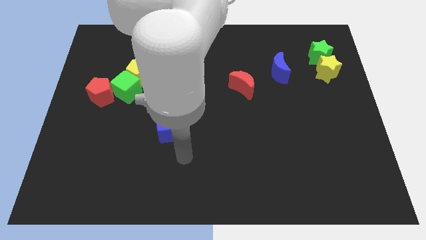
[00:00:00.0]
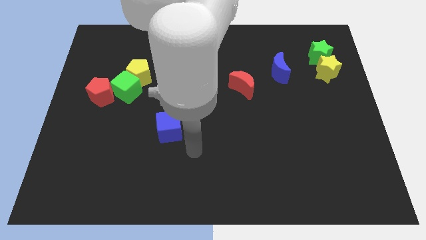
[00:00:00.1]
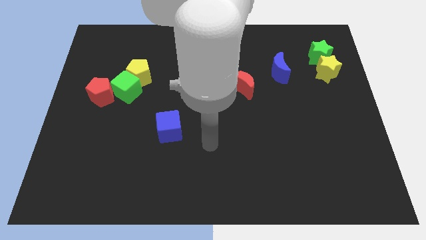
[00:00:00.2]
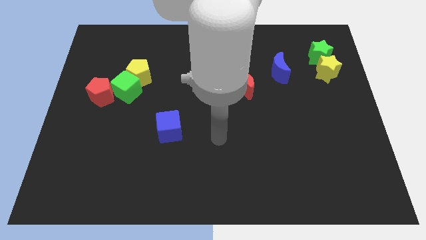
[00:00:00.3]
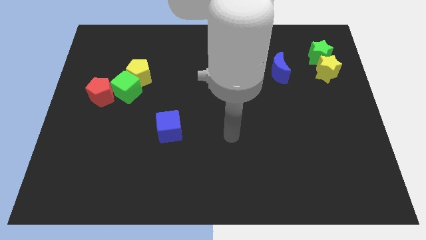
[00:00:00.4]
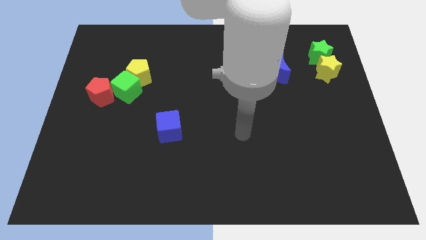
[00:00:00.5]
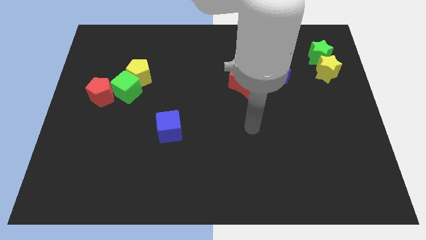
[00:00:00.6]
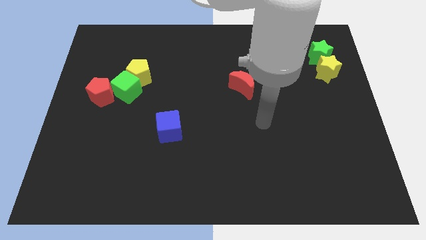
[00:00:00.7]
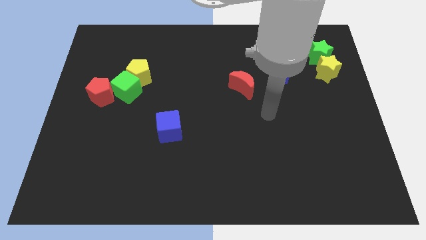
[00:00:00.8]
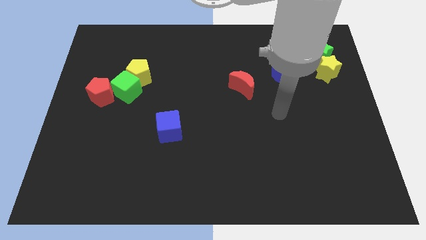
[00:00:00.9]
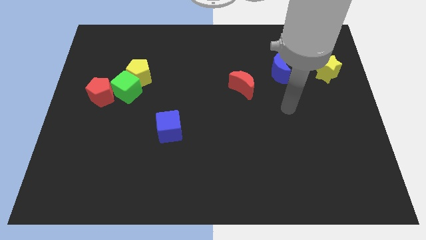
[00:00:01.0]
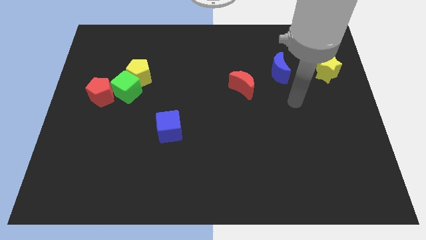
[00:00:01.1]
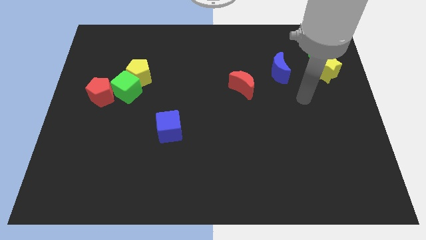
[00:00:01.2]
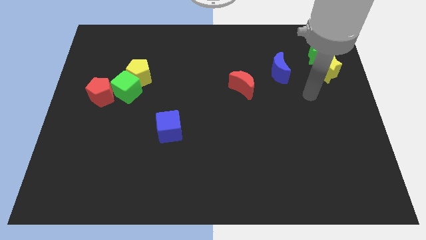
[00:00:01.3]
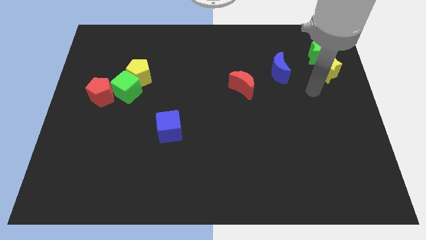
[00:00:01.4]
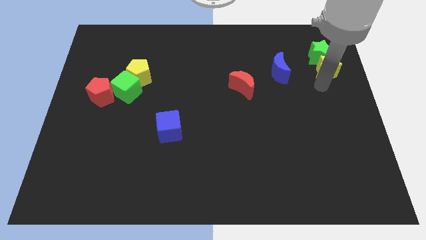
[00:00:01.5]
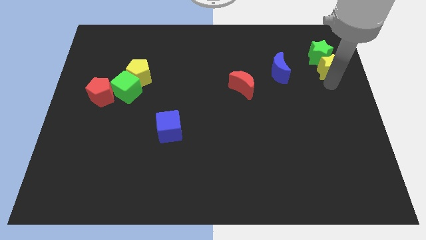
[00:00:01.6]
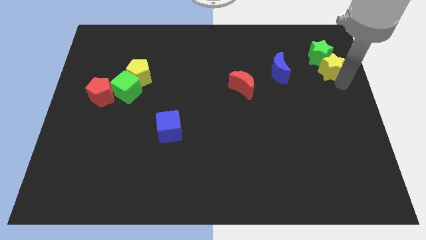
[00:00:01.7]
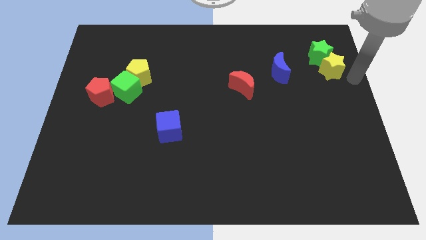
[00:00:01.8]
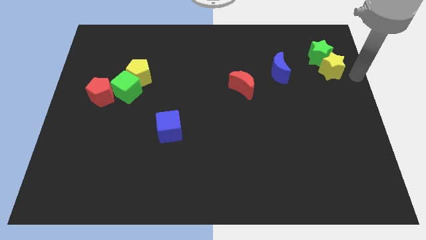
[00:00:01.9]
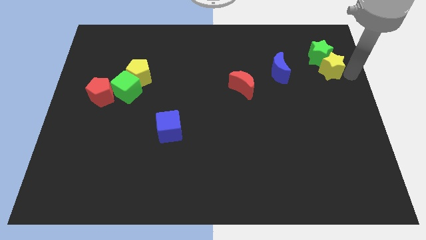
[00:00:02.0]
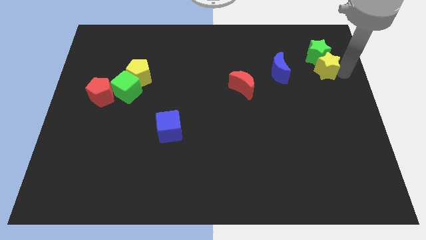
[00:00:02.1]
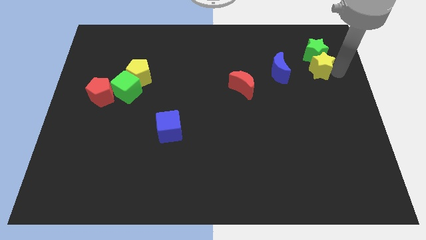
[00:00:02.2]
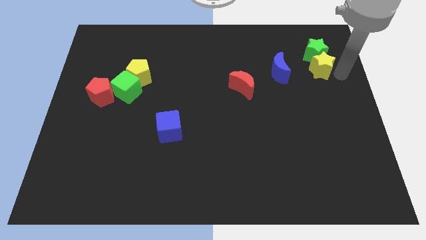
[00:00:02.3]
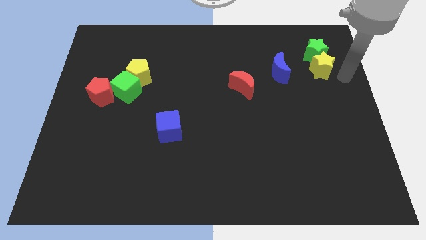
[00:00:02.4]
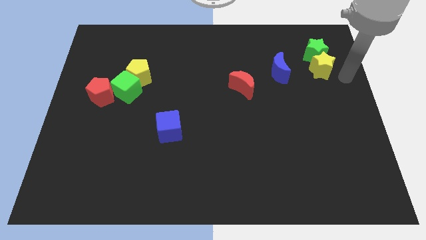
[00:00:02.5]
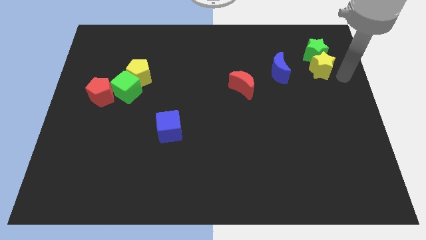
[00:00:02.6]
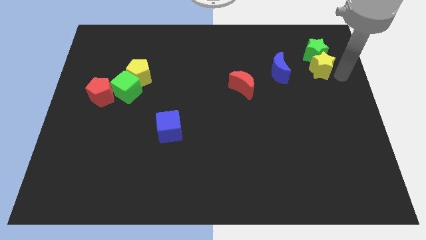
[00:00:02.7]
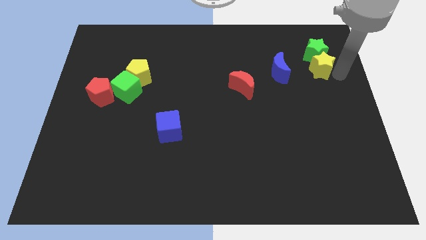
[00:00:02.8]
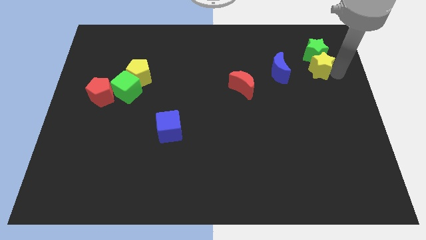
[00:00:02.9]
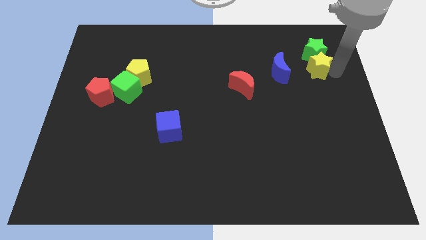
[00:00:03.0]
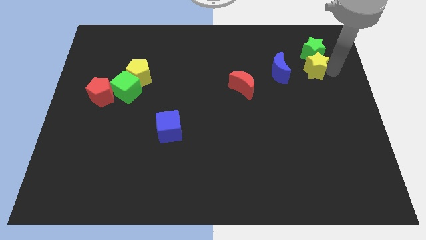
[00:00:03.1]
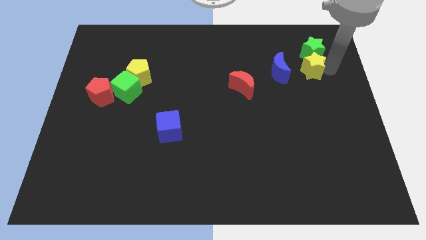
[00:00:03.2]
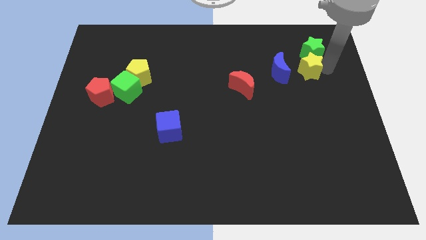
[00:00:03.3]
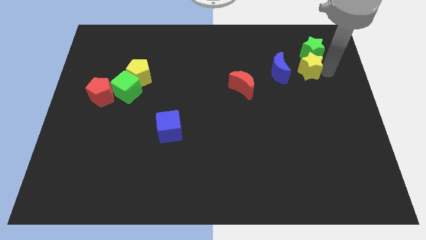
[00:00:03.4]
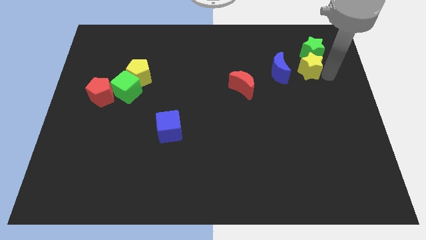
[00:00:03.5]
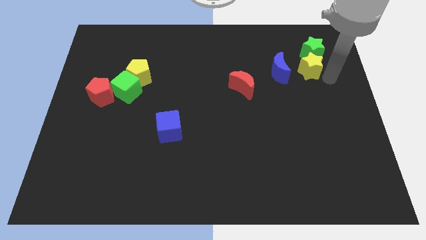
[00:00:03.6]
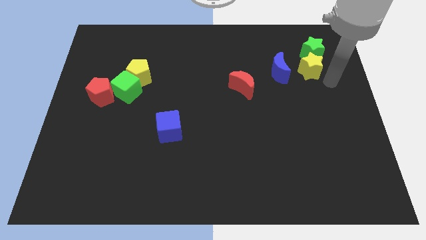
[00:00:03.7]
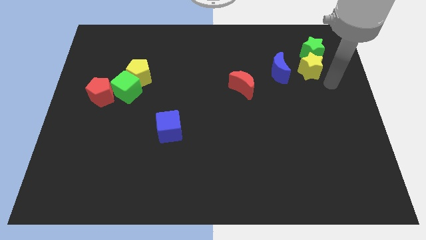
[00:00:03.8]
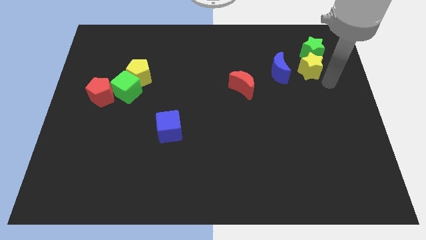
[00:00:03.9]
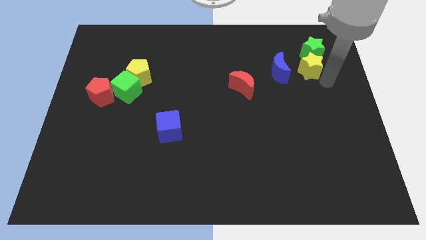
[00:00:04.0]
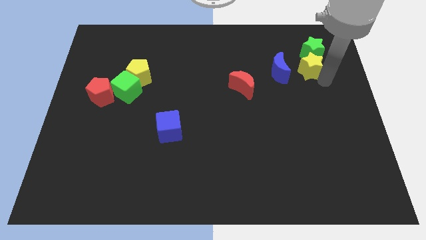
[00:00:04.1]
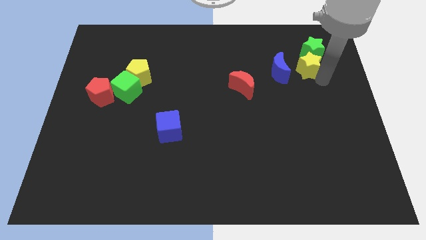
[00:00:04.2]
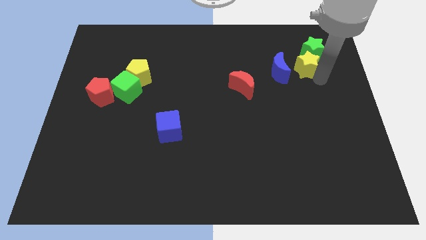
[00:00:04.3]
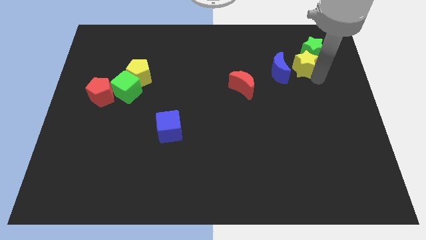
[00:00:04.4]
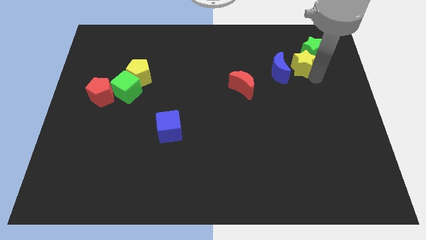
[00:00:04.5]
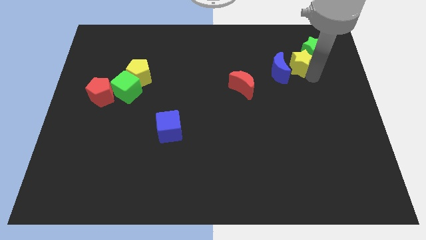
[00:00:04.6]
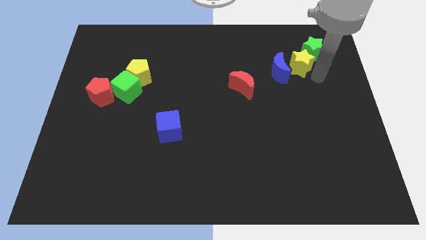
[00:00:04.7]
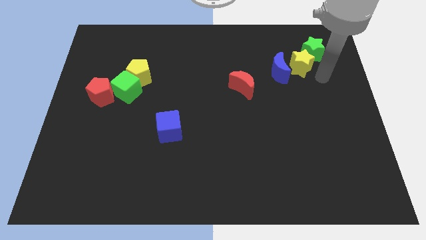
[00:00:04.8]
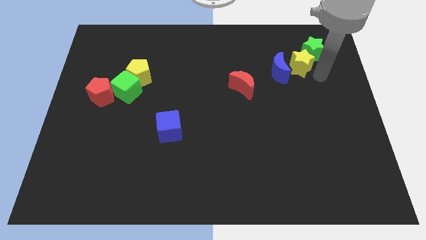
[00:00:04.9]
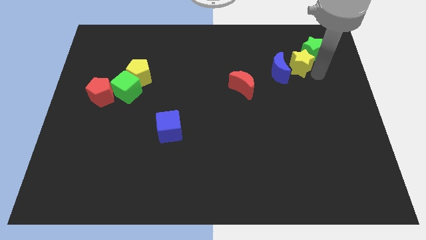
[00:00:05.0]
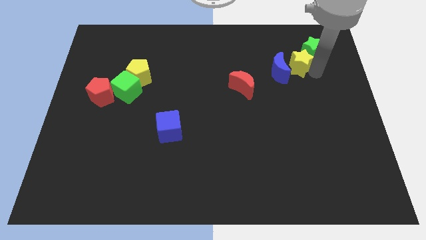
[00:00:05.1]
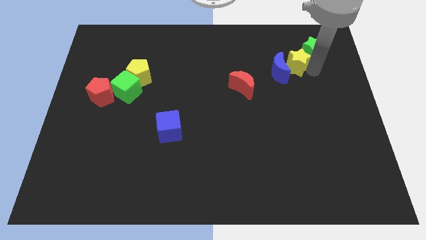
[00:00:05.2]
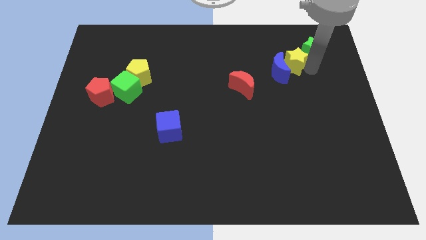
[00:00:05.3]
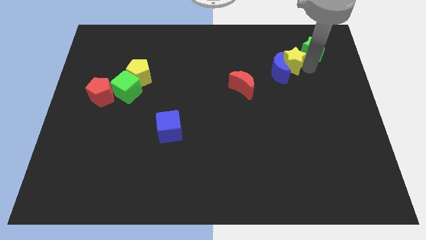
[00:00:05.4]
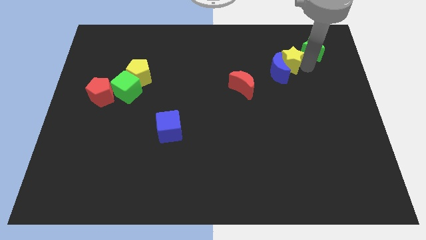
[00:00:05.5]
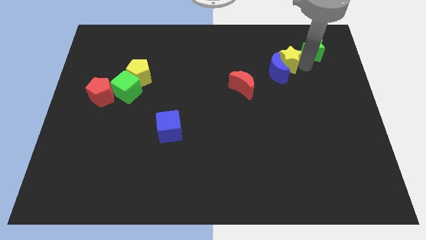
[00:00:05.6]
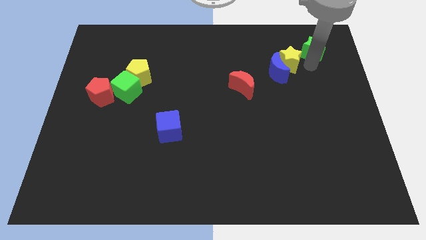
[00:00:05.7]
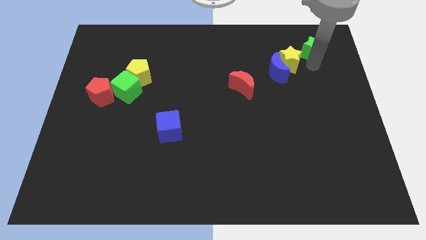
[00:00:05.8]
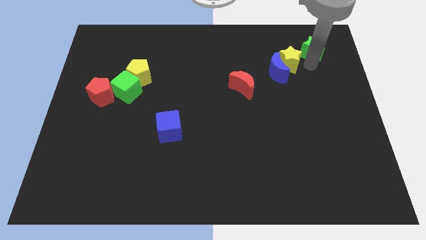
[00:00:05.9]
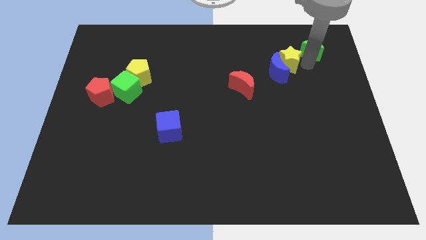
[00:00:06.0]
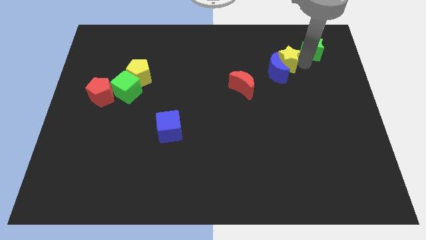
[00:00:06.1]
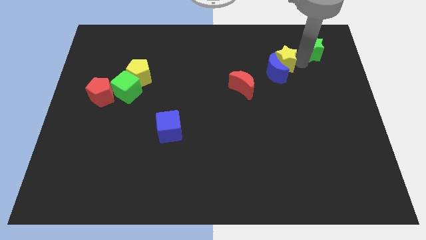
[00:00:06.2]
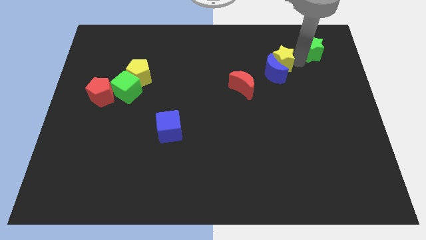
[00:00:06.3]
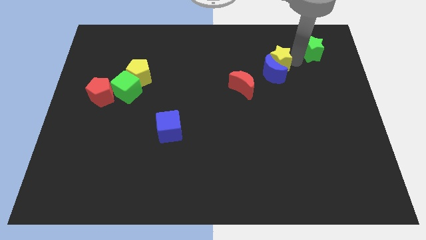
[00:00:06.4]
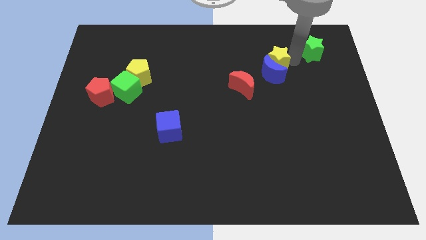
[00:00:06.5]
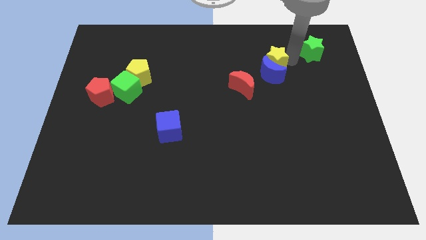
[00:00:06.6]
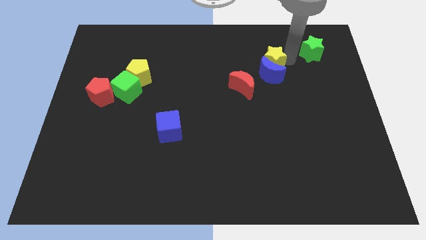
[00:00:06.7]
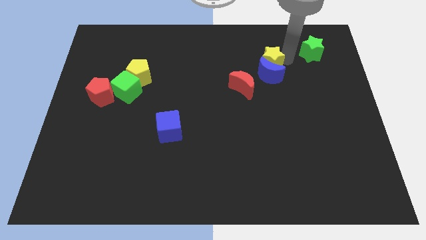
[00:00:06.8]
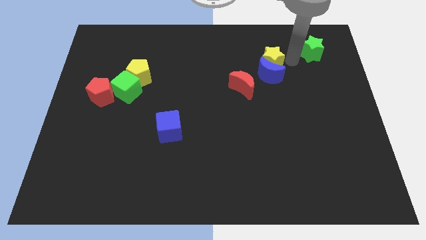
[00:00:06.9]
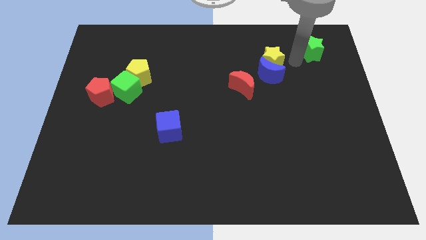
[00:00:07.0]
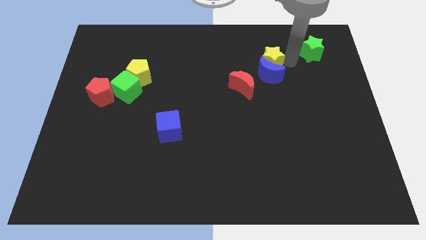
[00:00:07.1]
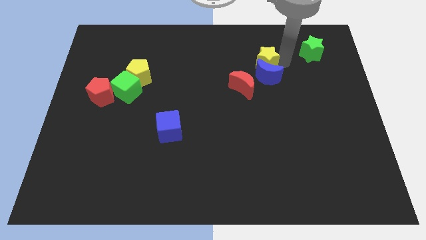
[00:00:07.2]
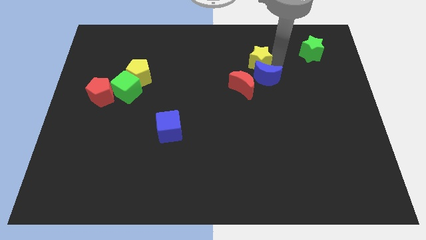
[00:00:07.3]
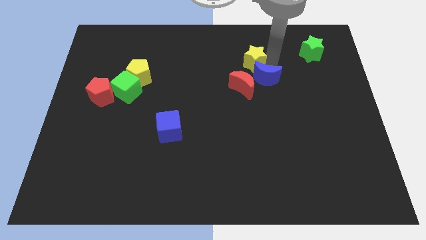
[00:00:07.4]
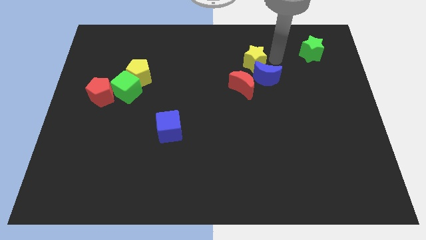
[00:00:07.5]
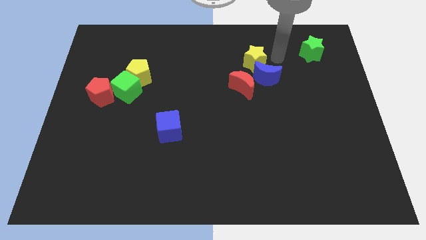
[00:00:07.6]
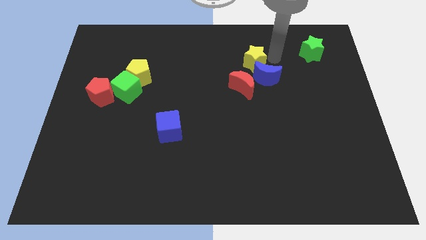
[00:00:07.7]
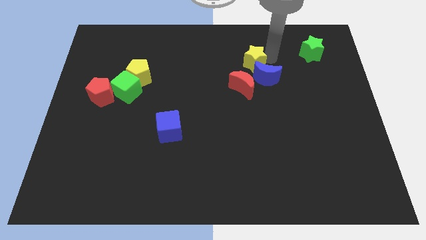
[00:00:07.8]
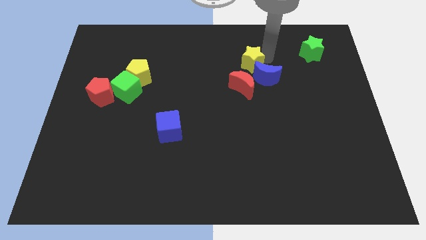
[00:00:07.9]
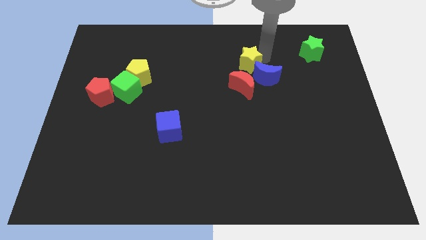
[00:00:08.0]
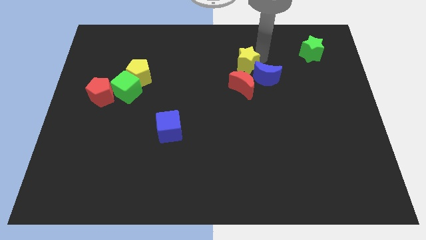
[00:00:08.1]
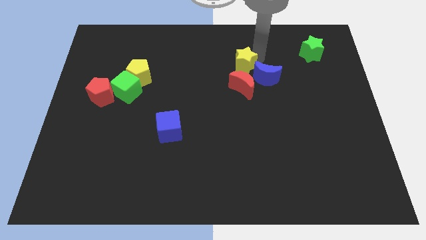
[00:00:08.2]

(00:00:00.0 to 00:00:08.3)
slide the yellow star to the left
